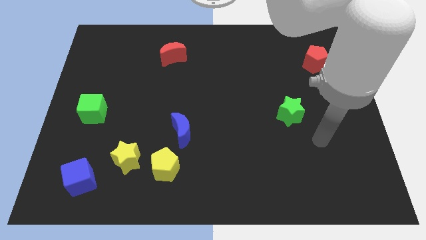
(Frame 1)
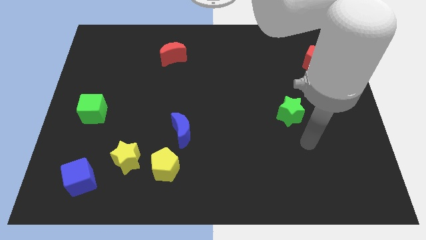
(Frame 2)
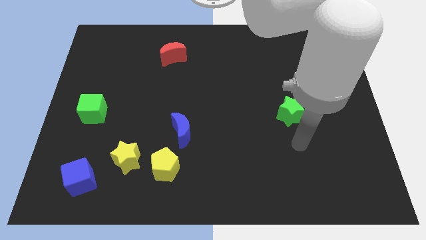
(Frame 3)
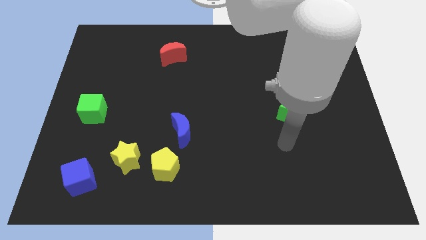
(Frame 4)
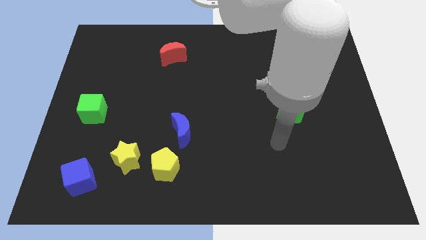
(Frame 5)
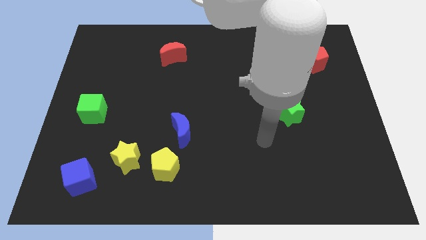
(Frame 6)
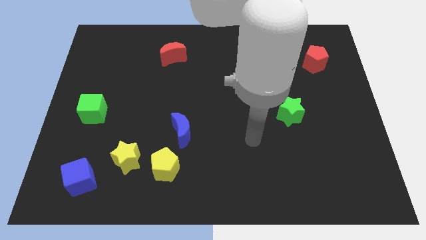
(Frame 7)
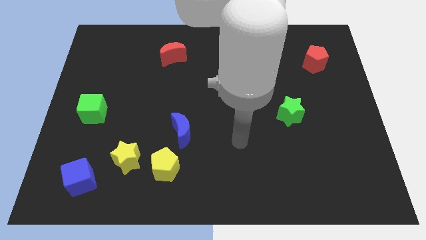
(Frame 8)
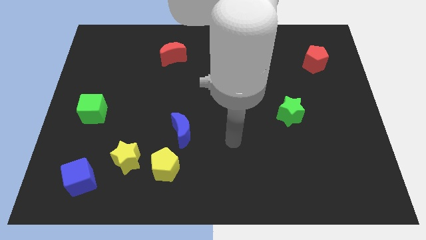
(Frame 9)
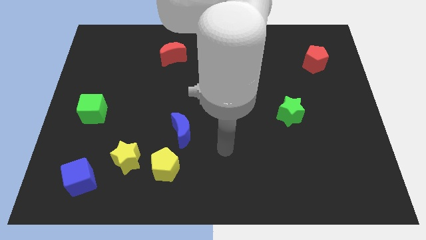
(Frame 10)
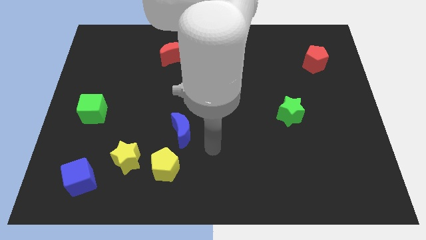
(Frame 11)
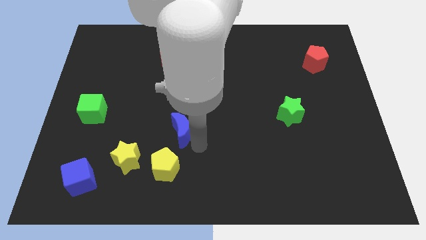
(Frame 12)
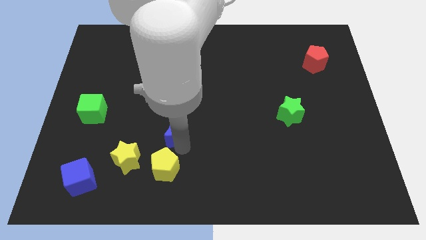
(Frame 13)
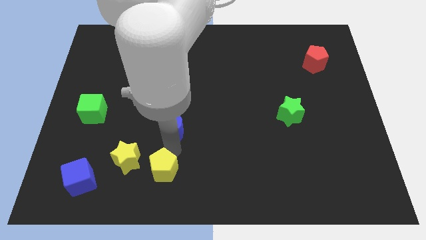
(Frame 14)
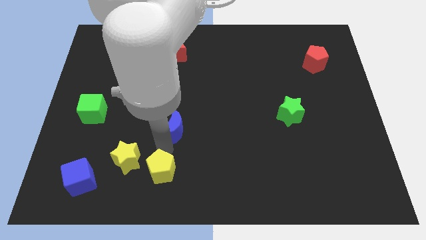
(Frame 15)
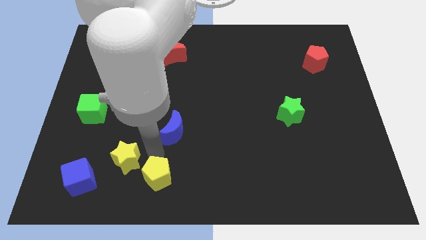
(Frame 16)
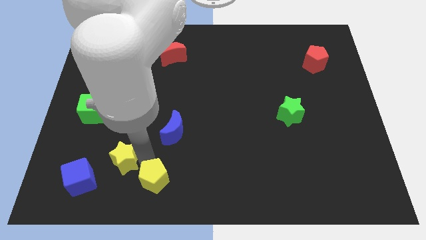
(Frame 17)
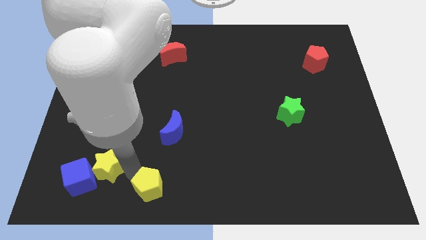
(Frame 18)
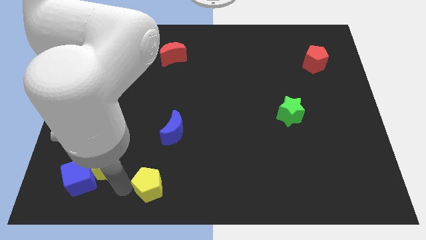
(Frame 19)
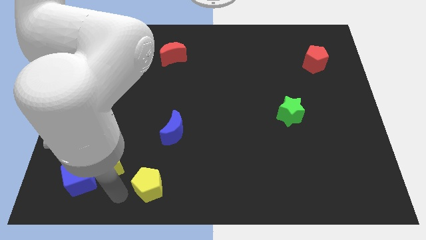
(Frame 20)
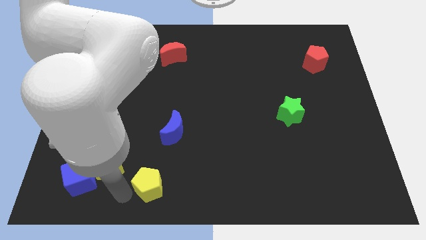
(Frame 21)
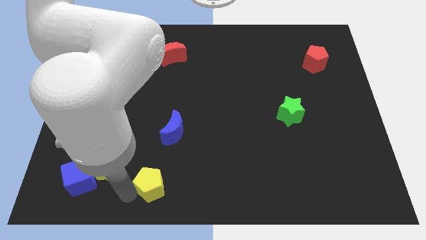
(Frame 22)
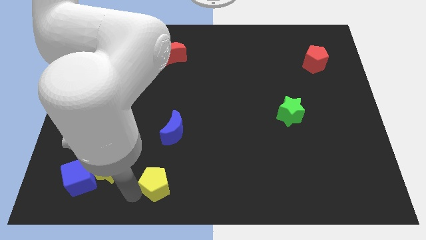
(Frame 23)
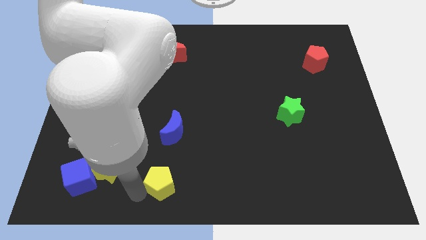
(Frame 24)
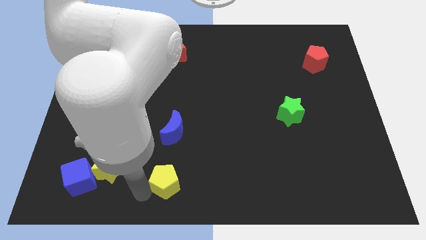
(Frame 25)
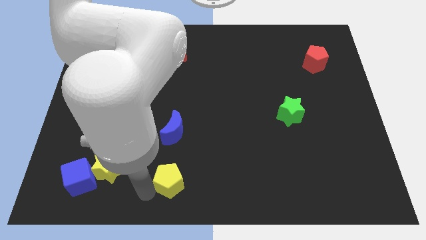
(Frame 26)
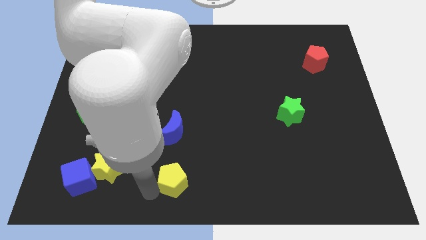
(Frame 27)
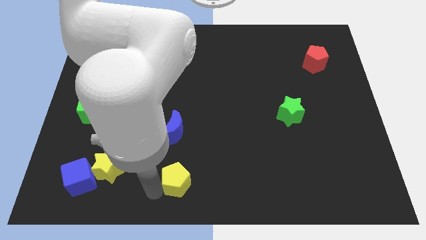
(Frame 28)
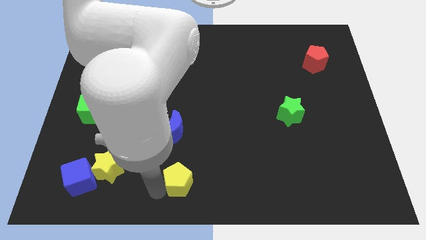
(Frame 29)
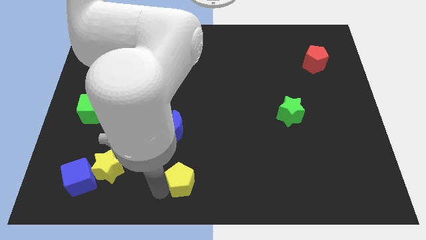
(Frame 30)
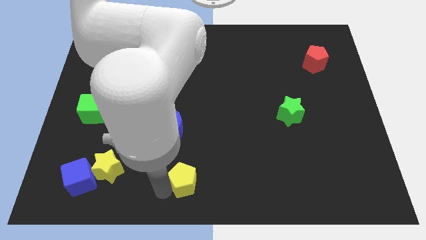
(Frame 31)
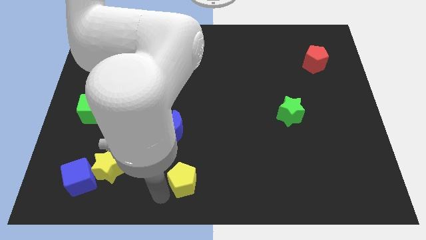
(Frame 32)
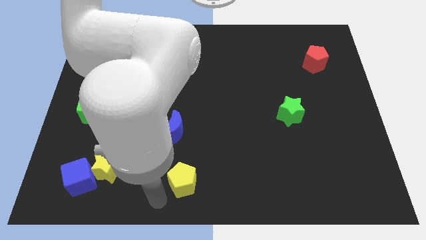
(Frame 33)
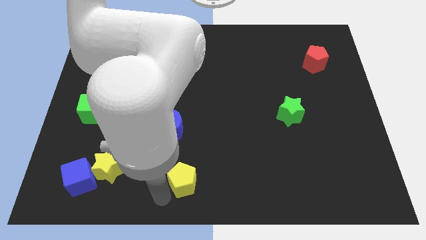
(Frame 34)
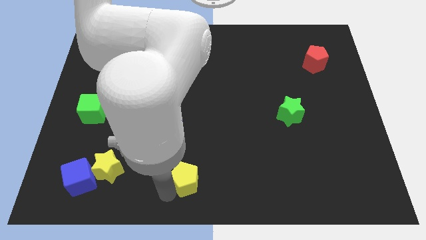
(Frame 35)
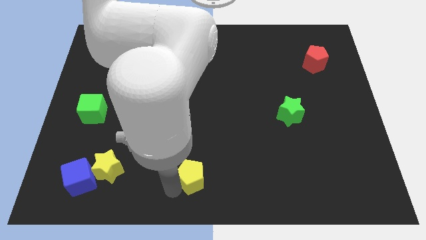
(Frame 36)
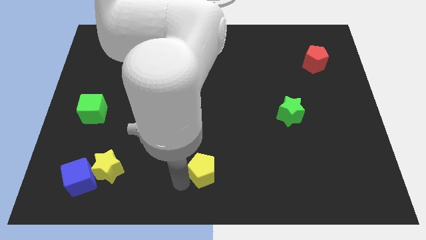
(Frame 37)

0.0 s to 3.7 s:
slide the yellow pentagon right somewhat

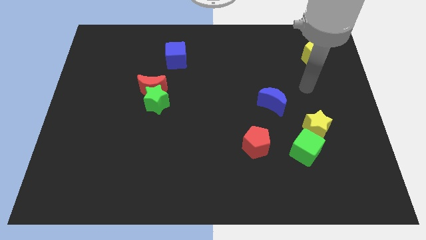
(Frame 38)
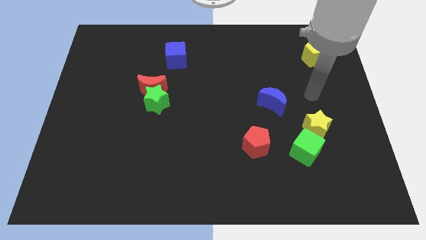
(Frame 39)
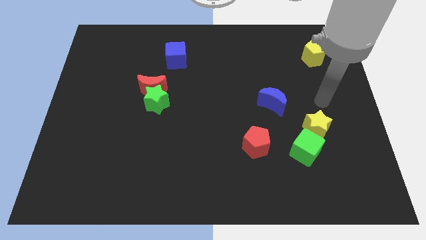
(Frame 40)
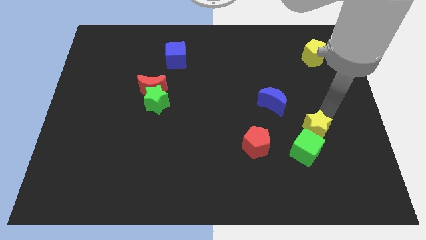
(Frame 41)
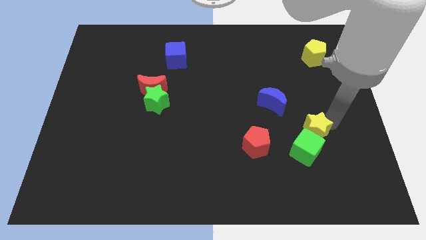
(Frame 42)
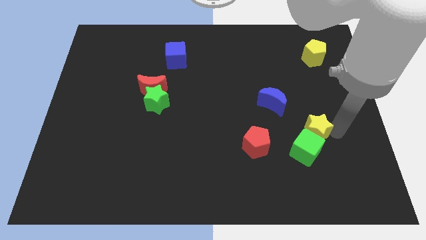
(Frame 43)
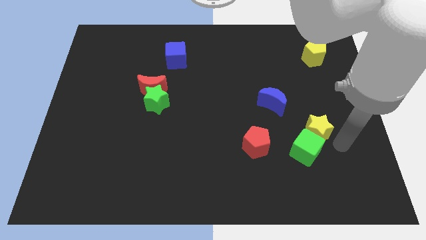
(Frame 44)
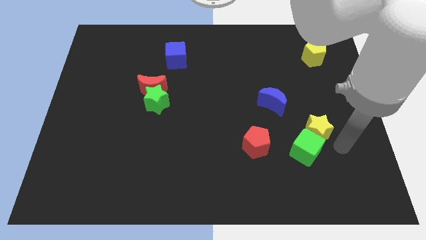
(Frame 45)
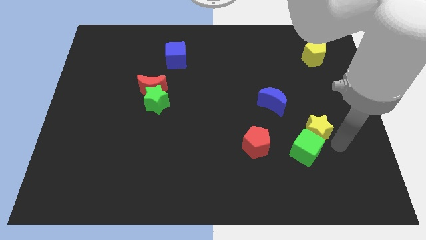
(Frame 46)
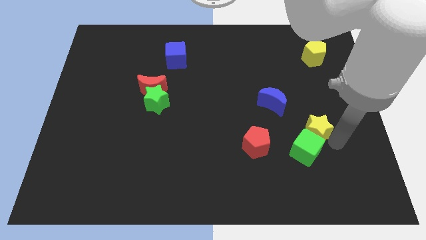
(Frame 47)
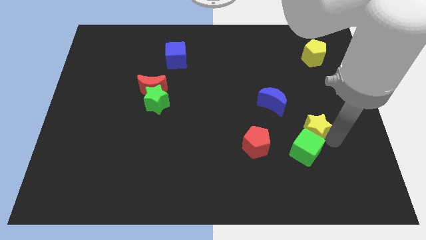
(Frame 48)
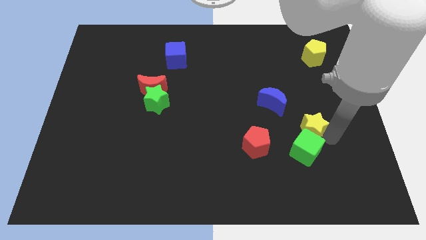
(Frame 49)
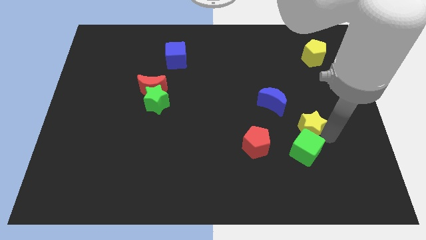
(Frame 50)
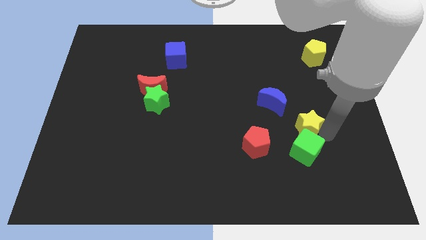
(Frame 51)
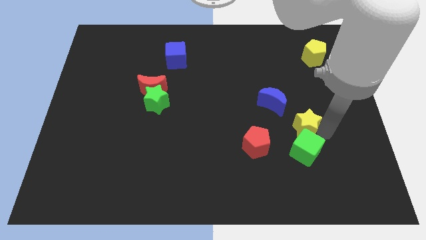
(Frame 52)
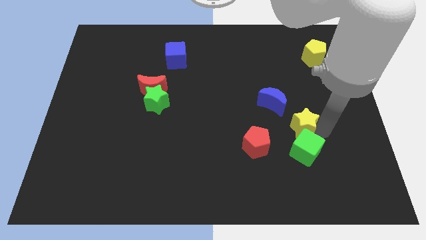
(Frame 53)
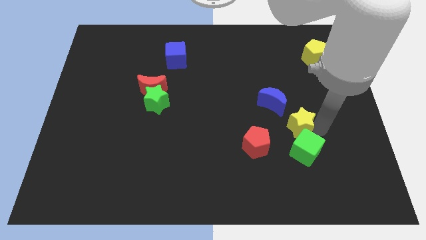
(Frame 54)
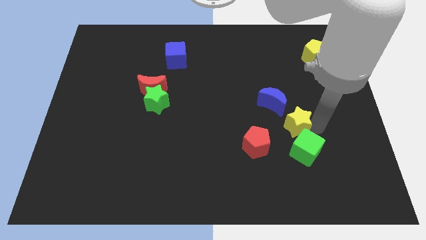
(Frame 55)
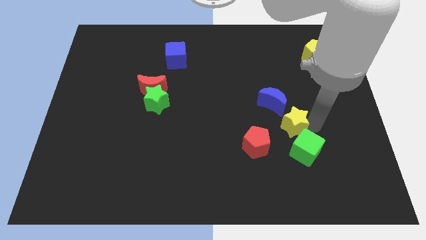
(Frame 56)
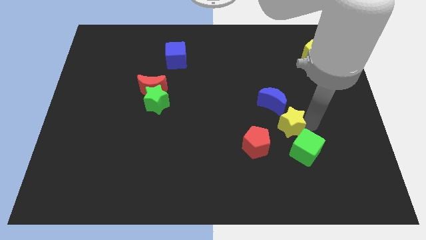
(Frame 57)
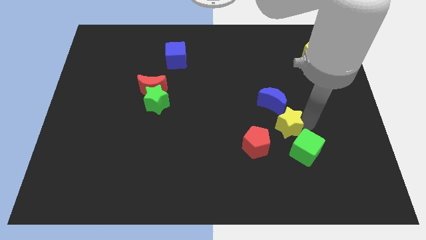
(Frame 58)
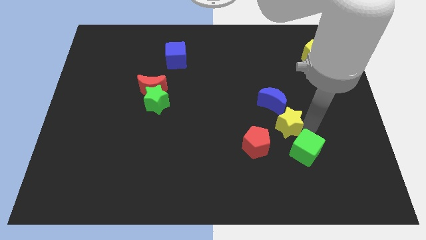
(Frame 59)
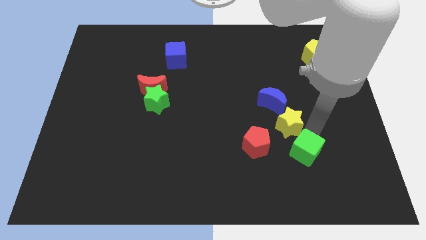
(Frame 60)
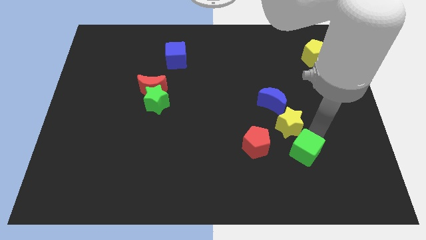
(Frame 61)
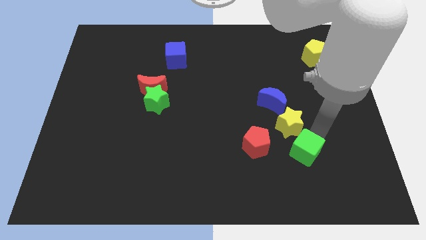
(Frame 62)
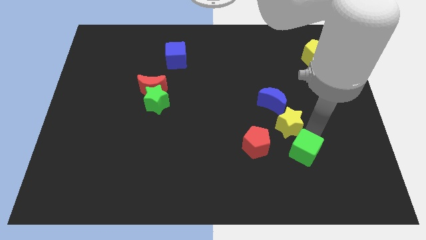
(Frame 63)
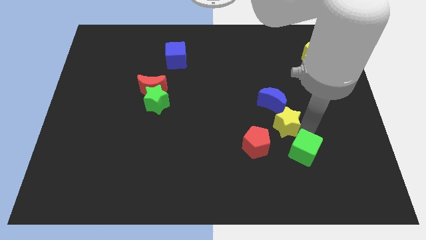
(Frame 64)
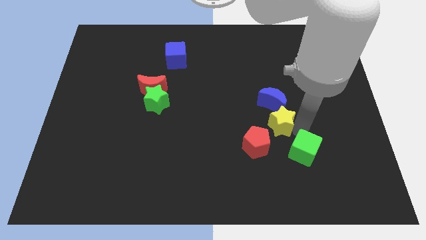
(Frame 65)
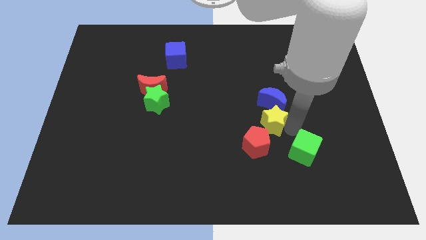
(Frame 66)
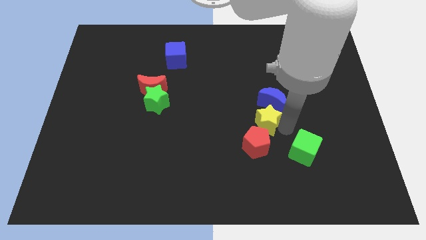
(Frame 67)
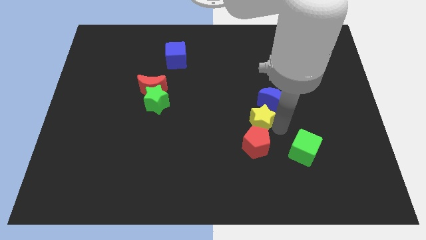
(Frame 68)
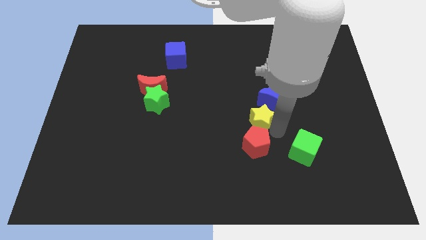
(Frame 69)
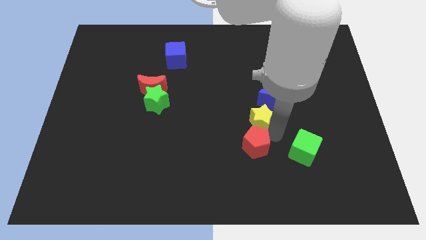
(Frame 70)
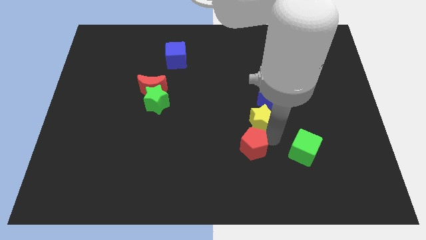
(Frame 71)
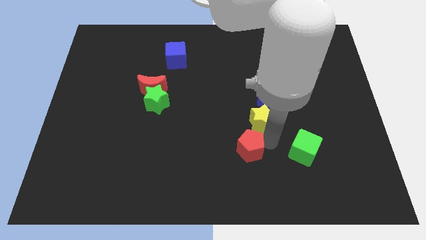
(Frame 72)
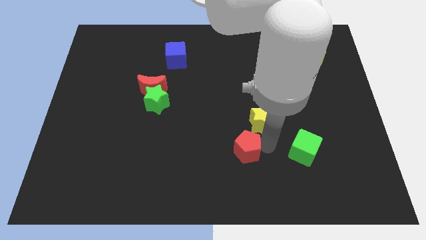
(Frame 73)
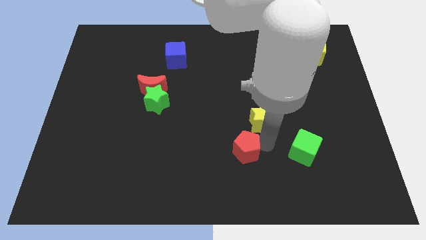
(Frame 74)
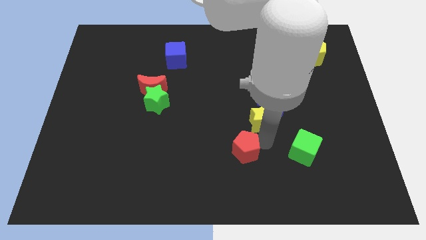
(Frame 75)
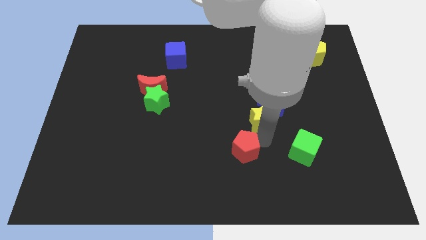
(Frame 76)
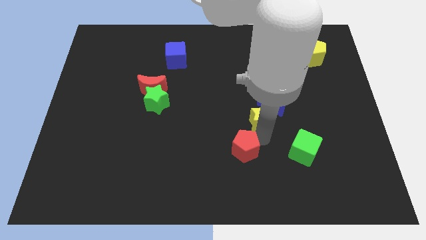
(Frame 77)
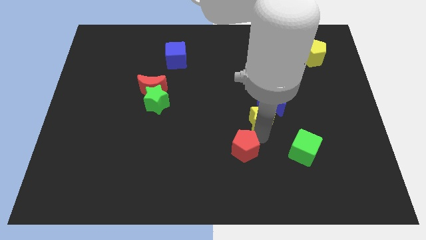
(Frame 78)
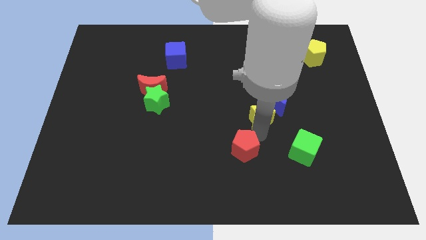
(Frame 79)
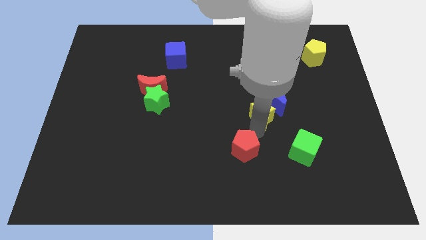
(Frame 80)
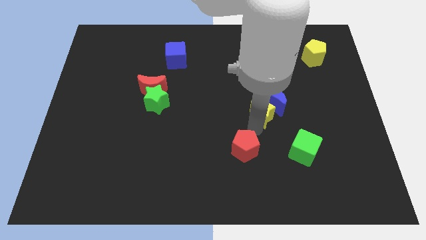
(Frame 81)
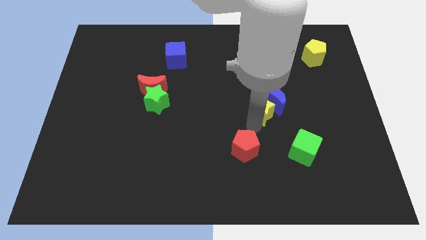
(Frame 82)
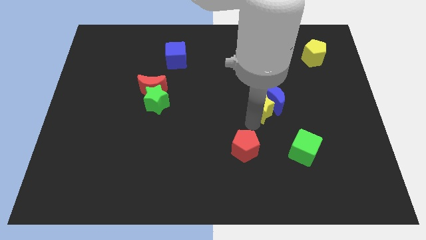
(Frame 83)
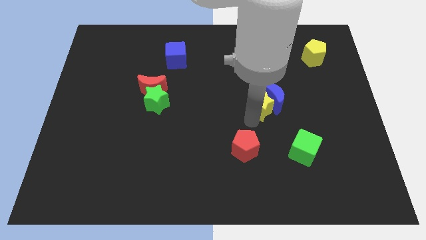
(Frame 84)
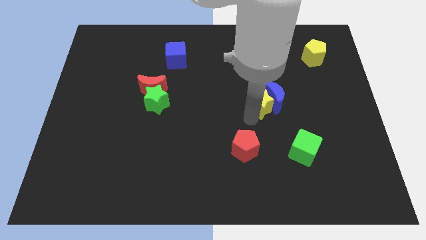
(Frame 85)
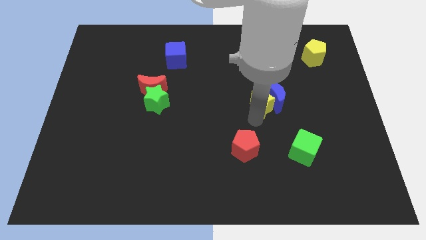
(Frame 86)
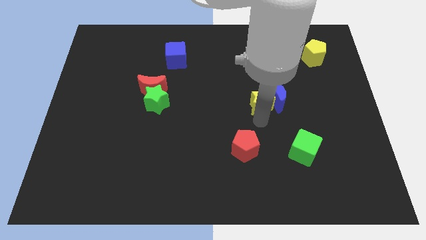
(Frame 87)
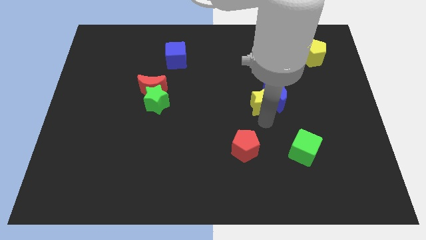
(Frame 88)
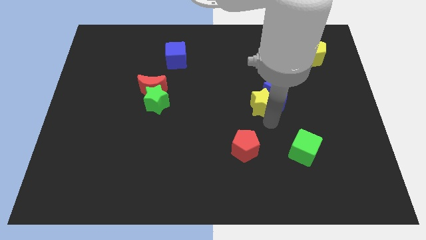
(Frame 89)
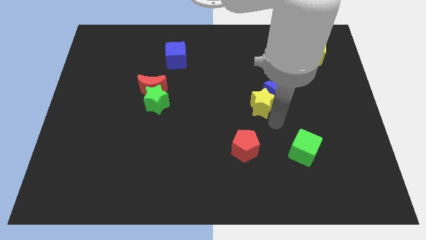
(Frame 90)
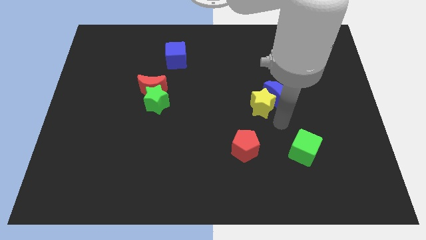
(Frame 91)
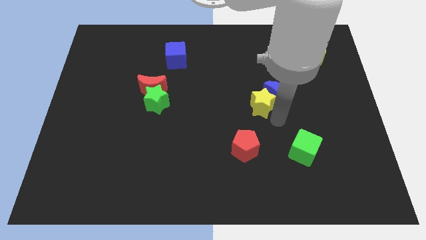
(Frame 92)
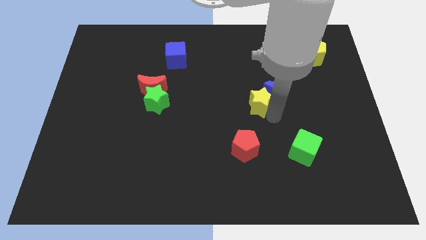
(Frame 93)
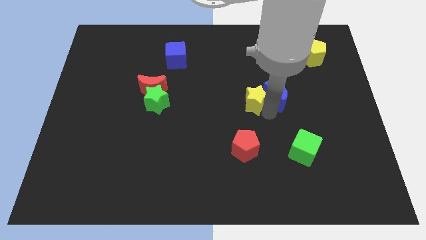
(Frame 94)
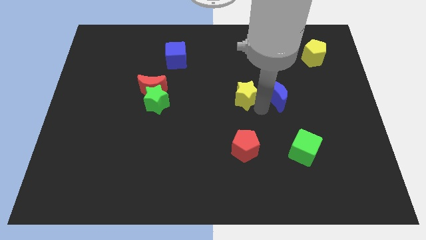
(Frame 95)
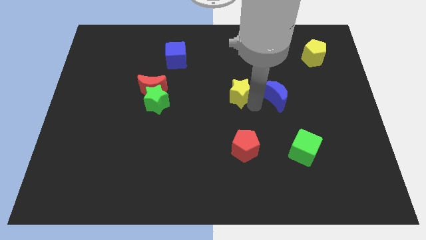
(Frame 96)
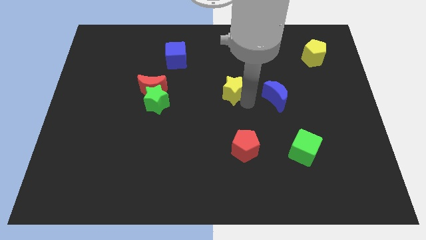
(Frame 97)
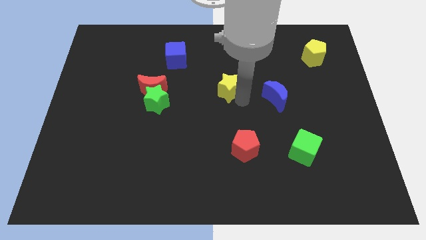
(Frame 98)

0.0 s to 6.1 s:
slide the yellow star diagonally up and to the left
